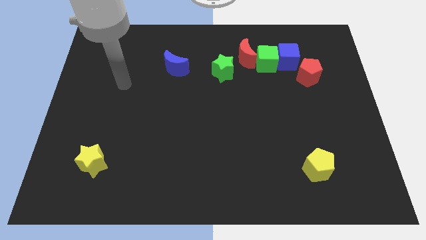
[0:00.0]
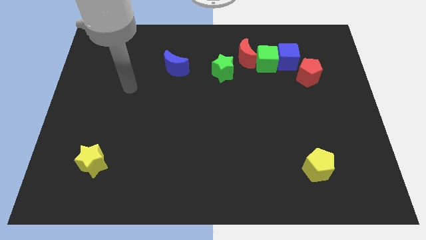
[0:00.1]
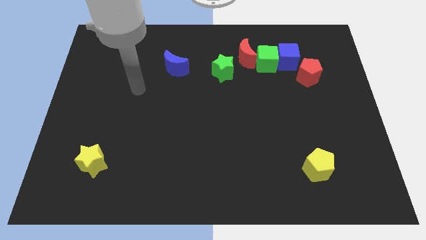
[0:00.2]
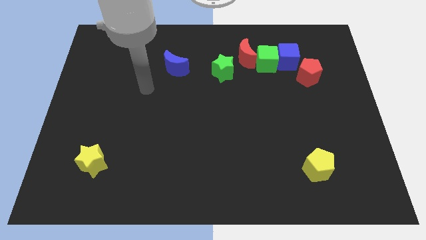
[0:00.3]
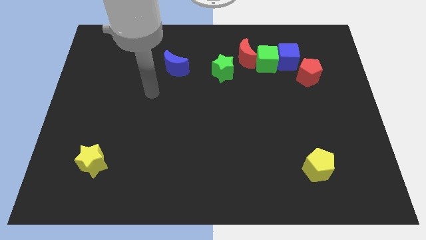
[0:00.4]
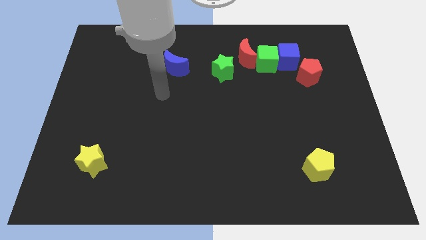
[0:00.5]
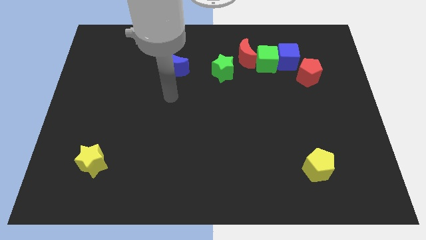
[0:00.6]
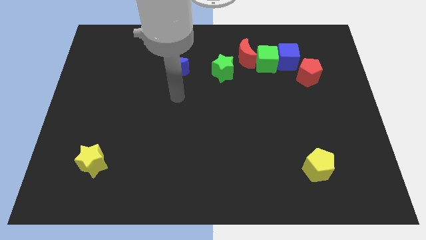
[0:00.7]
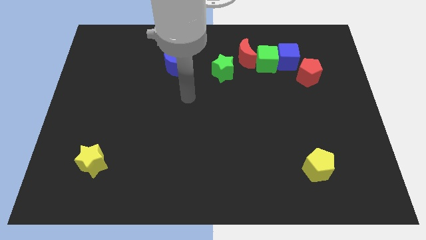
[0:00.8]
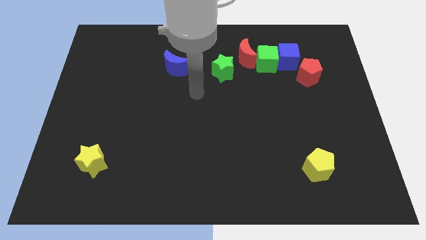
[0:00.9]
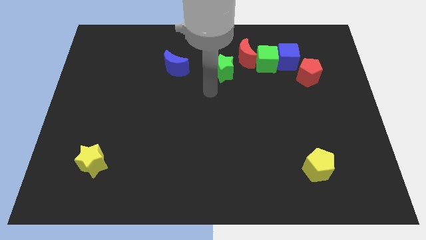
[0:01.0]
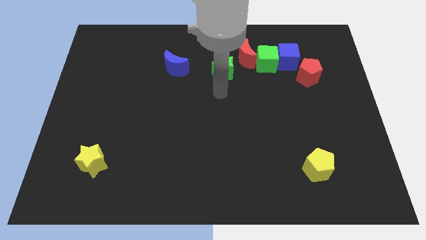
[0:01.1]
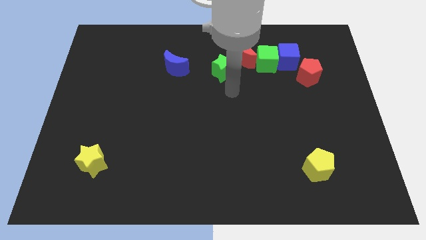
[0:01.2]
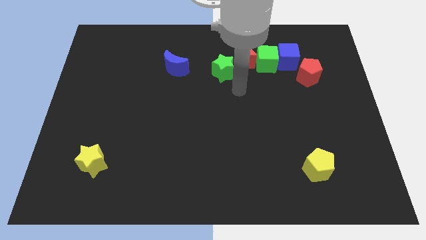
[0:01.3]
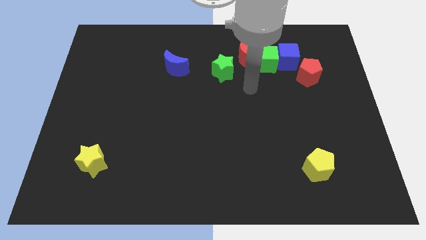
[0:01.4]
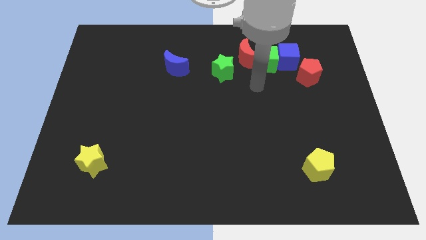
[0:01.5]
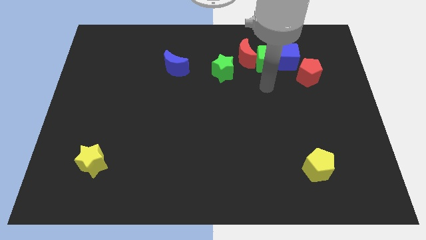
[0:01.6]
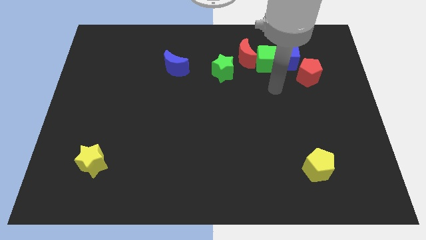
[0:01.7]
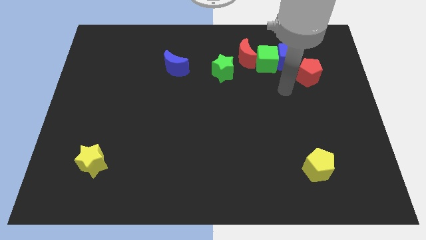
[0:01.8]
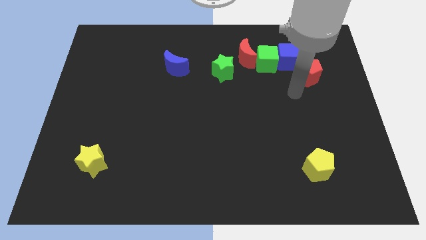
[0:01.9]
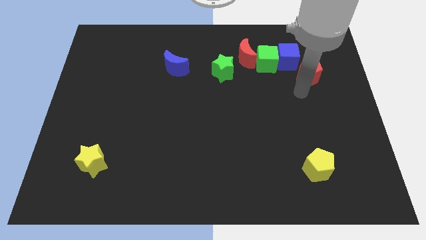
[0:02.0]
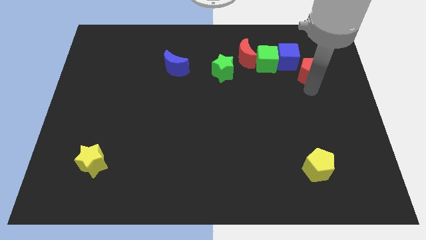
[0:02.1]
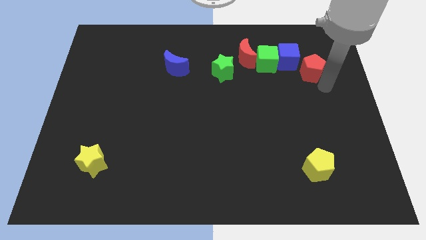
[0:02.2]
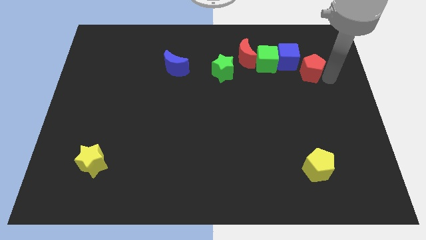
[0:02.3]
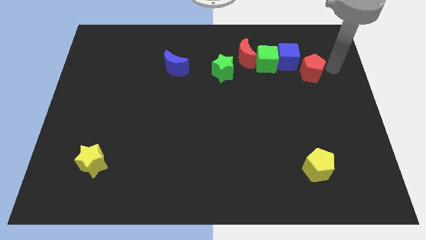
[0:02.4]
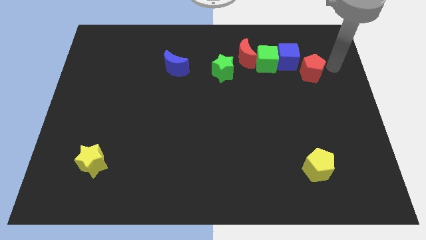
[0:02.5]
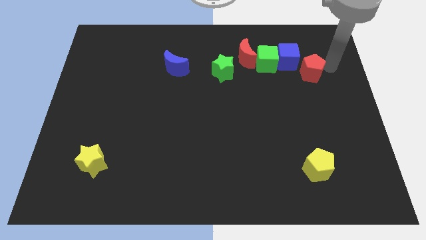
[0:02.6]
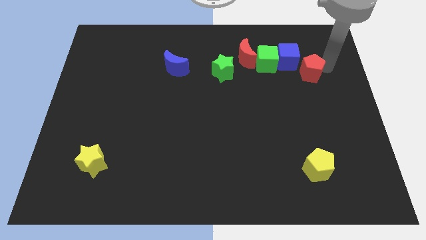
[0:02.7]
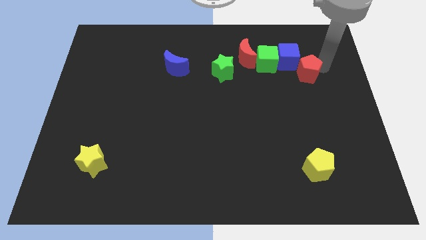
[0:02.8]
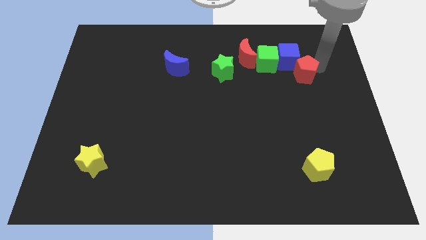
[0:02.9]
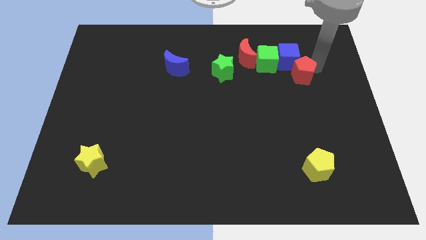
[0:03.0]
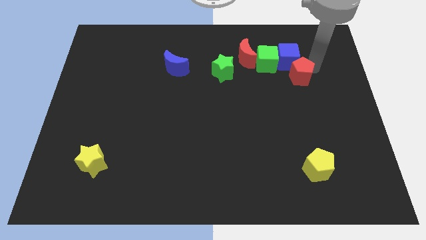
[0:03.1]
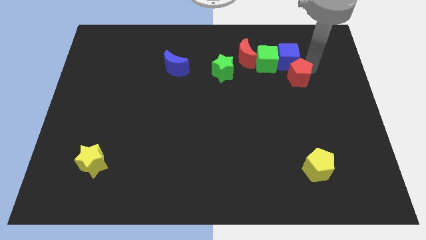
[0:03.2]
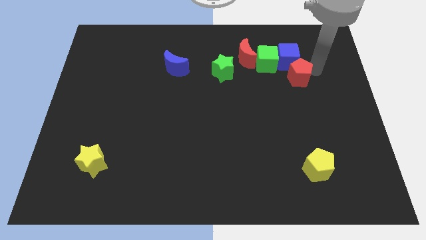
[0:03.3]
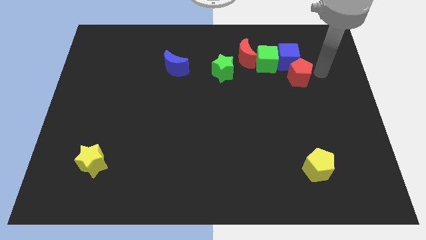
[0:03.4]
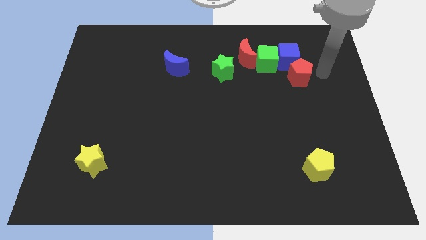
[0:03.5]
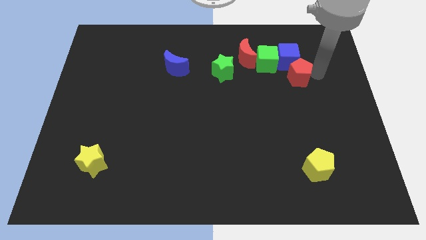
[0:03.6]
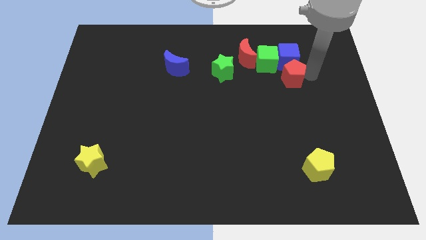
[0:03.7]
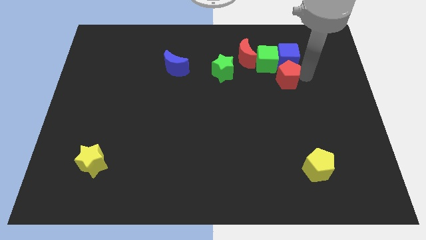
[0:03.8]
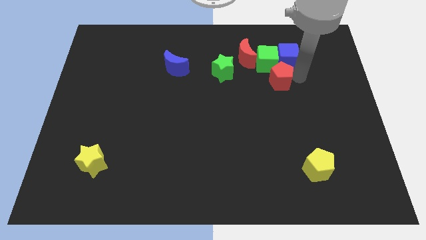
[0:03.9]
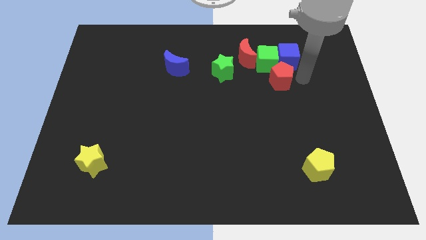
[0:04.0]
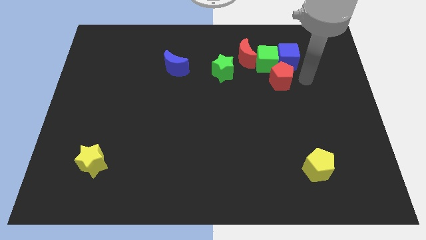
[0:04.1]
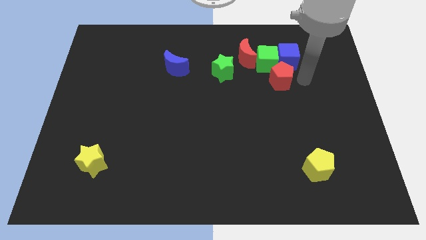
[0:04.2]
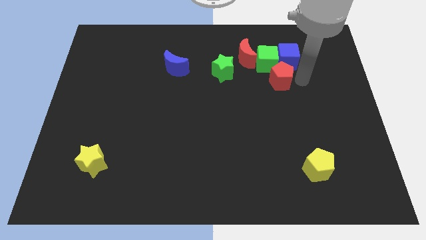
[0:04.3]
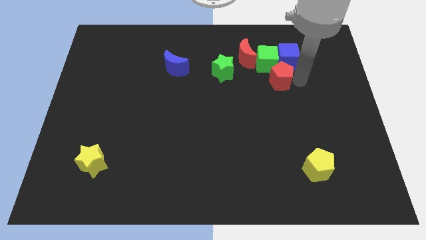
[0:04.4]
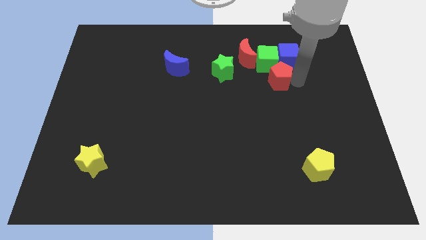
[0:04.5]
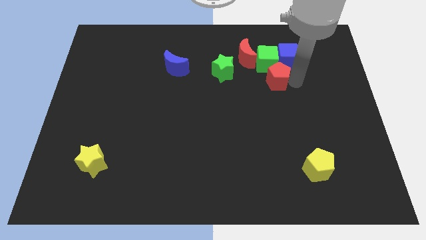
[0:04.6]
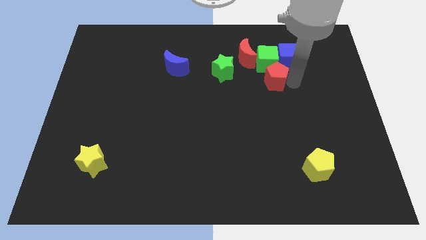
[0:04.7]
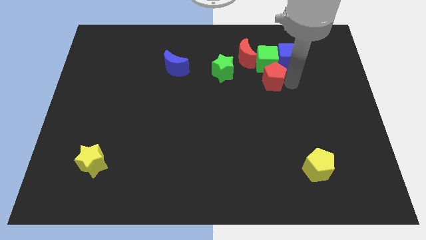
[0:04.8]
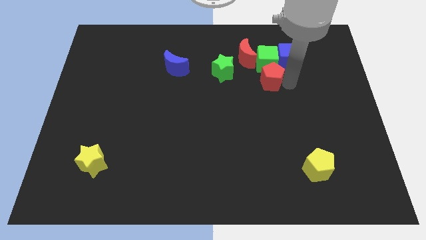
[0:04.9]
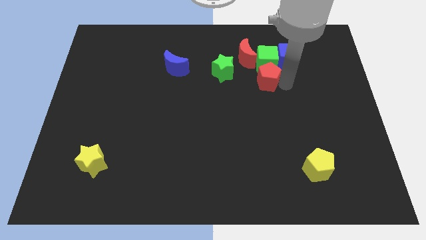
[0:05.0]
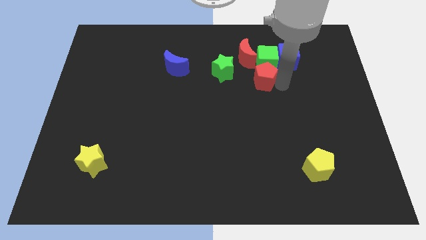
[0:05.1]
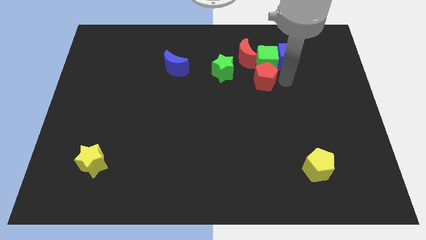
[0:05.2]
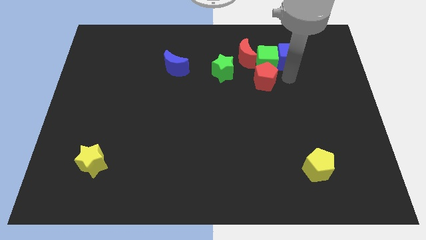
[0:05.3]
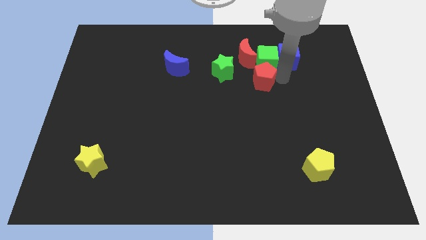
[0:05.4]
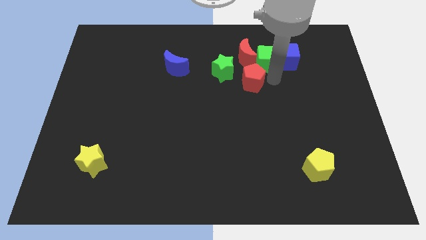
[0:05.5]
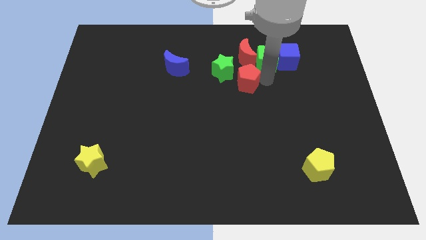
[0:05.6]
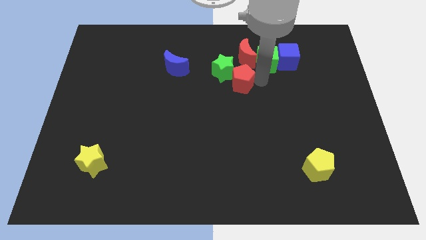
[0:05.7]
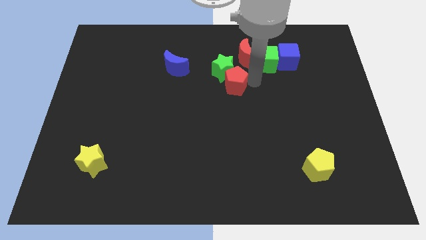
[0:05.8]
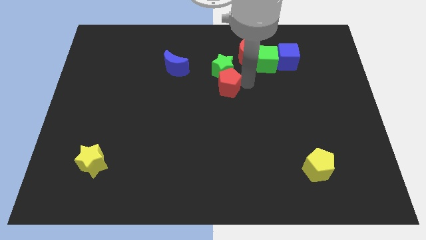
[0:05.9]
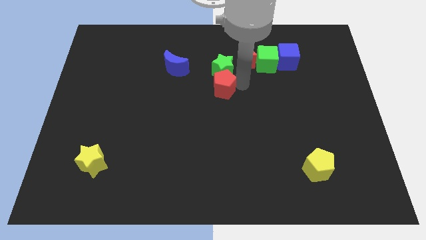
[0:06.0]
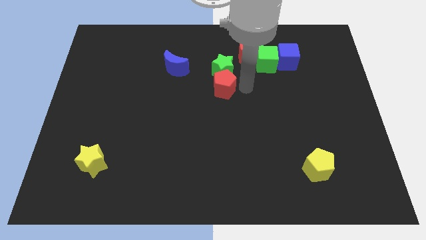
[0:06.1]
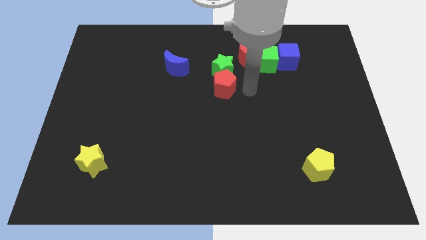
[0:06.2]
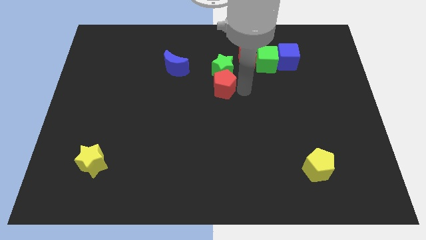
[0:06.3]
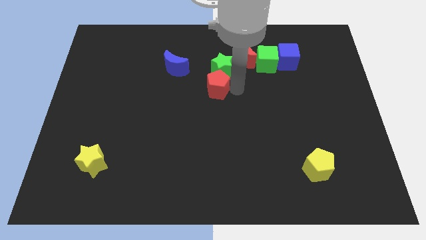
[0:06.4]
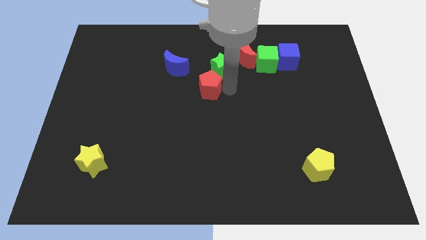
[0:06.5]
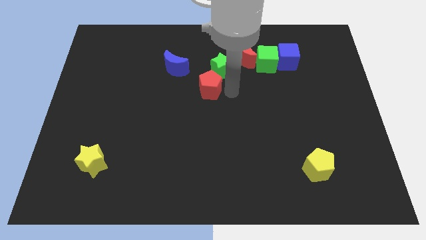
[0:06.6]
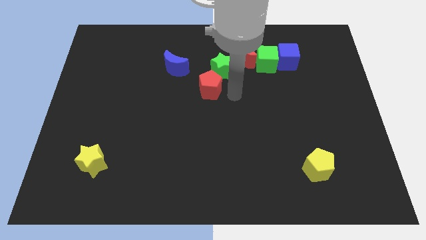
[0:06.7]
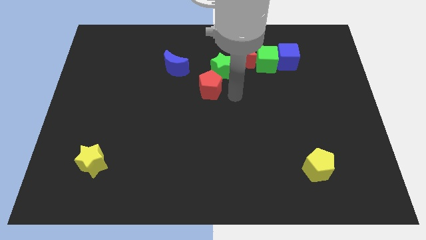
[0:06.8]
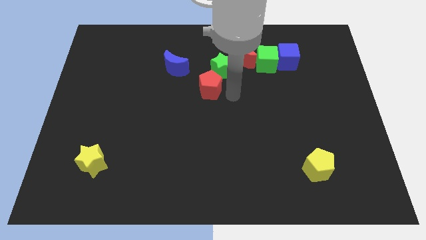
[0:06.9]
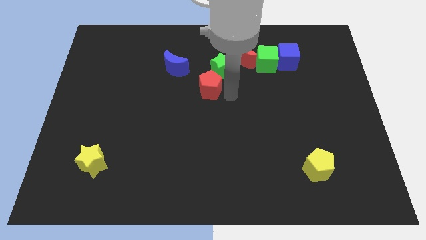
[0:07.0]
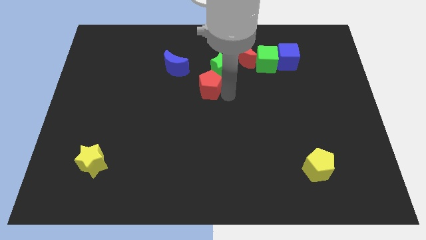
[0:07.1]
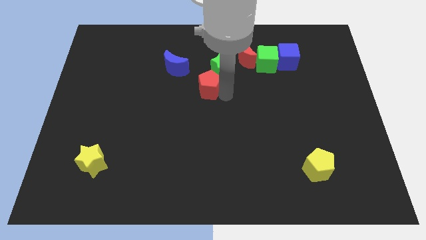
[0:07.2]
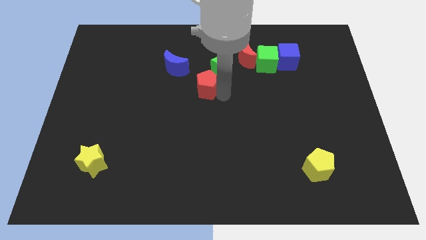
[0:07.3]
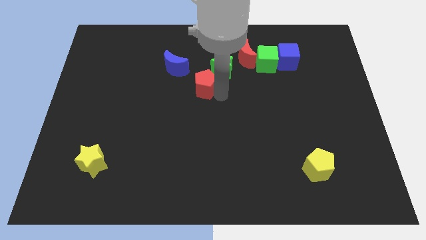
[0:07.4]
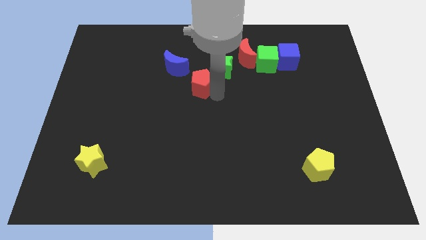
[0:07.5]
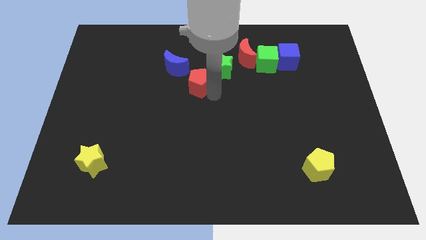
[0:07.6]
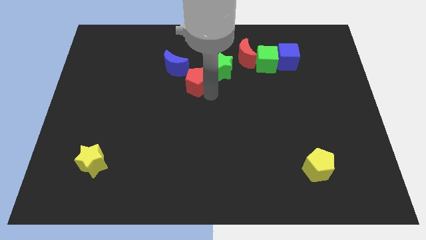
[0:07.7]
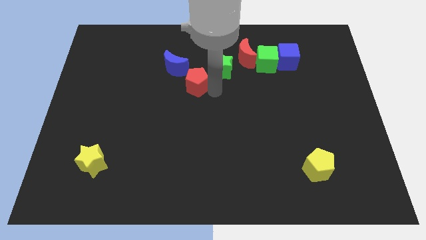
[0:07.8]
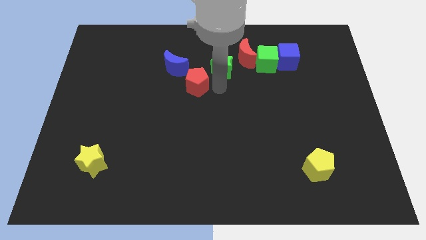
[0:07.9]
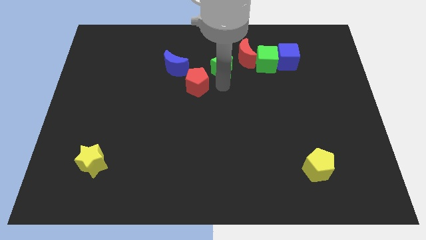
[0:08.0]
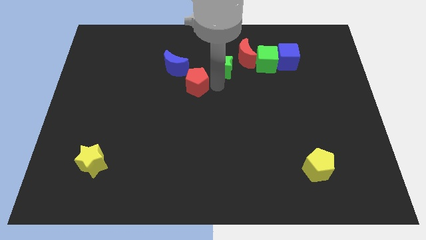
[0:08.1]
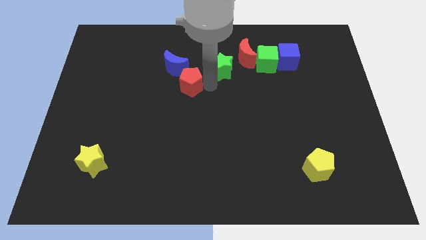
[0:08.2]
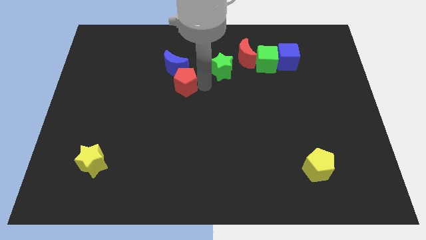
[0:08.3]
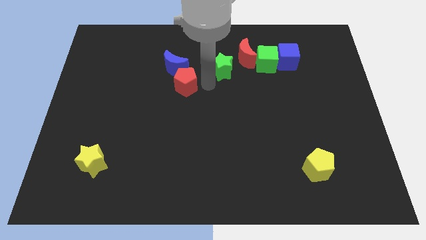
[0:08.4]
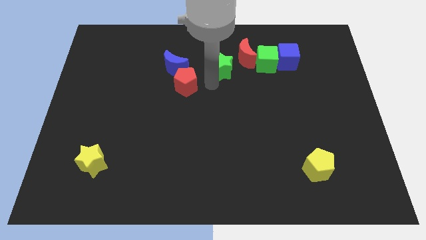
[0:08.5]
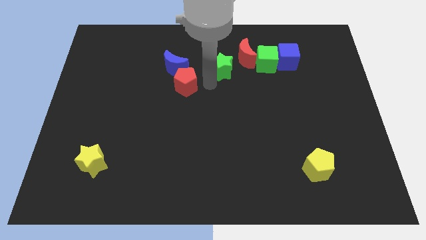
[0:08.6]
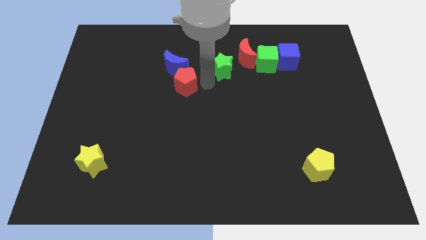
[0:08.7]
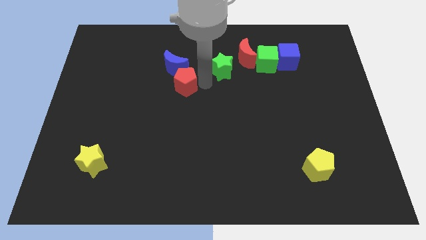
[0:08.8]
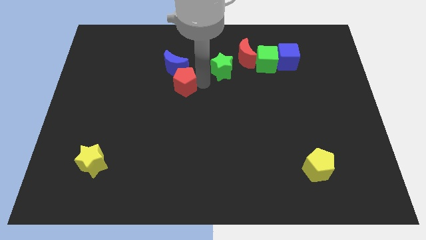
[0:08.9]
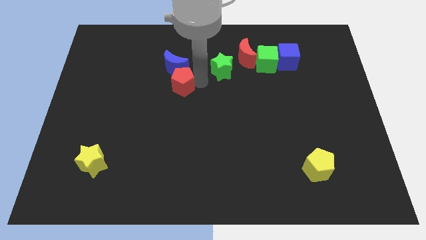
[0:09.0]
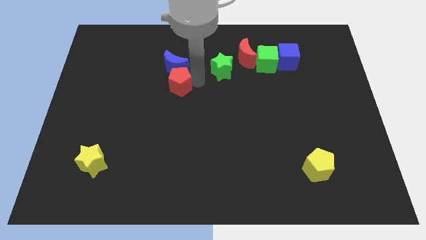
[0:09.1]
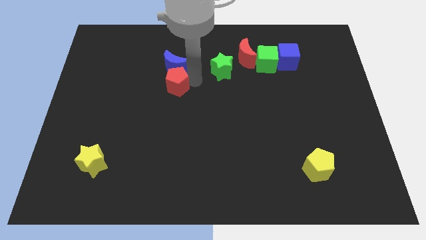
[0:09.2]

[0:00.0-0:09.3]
slide the red pentagon to the bottom left side of the blue moon
